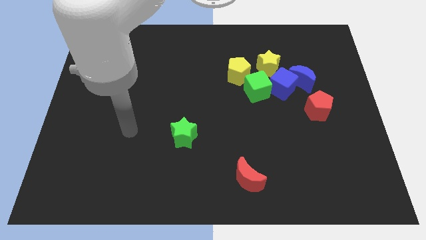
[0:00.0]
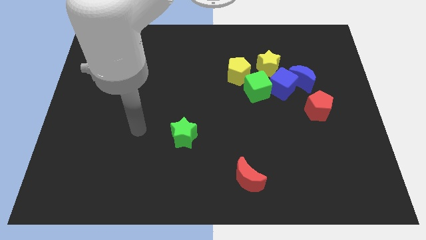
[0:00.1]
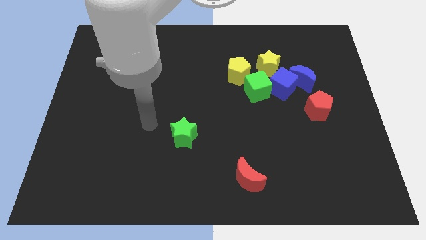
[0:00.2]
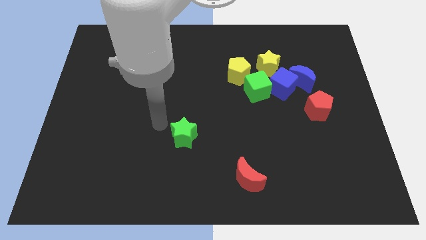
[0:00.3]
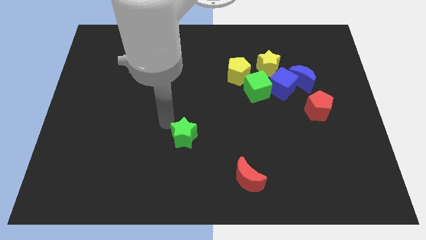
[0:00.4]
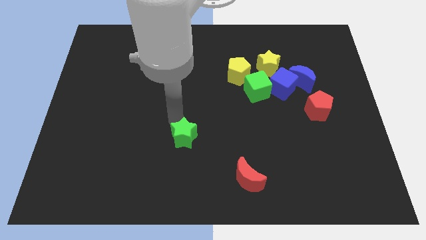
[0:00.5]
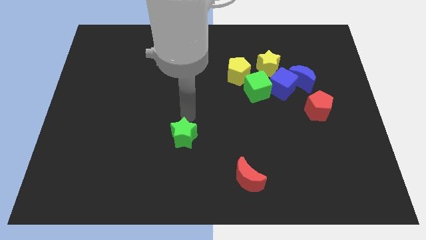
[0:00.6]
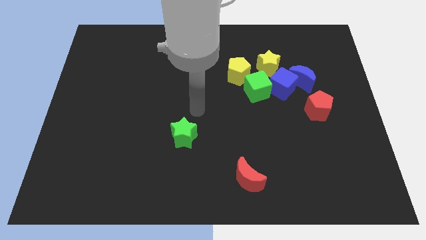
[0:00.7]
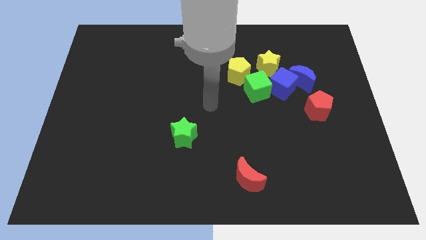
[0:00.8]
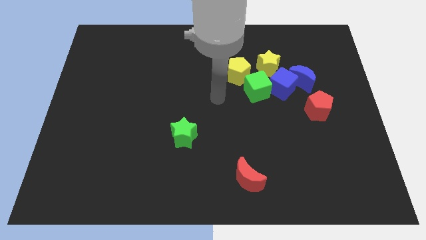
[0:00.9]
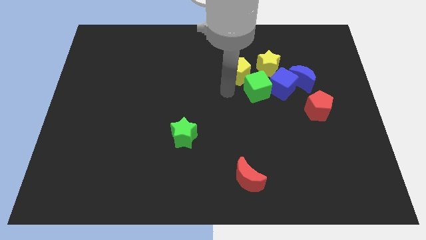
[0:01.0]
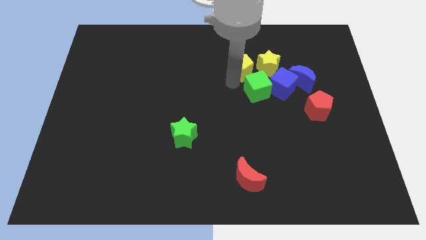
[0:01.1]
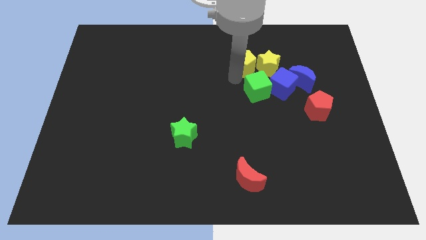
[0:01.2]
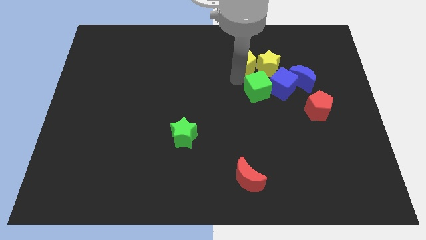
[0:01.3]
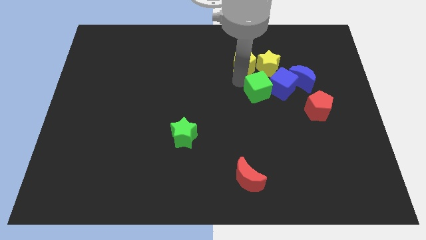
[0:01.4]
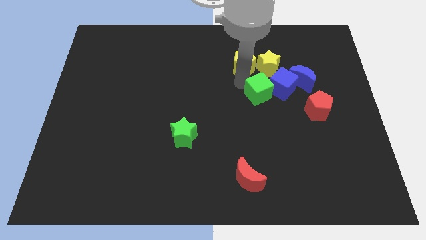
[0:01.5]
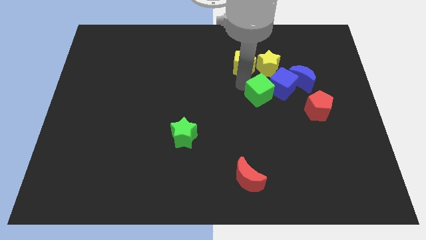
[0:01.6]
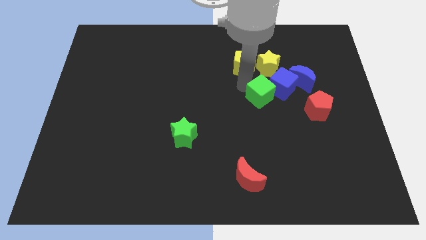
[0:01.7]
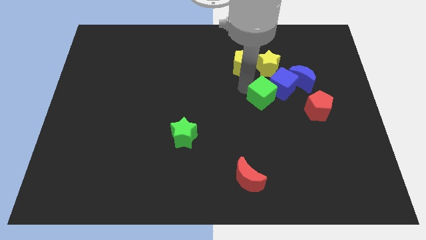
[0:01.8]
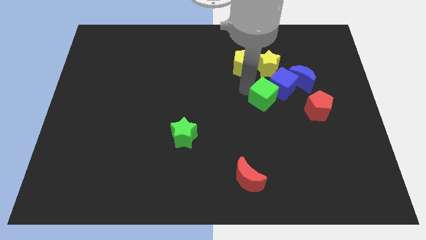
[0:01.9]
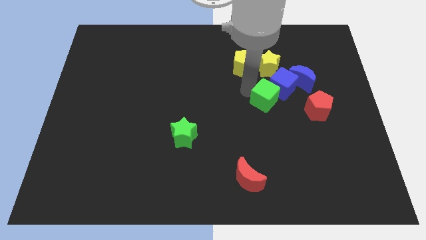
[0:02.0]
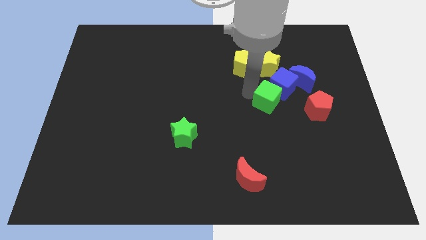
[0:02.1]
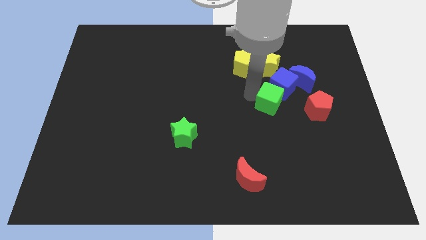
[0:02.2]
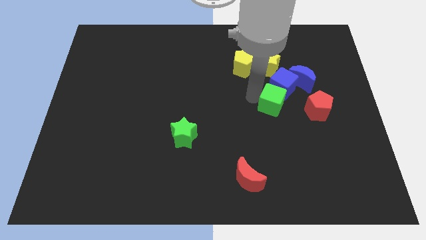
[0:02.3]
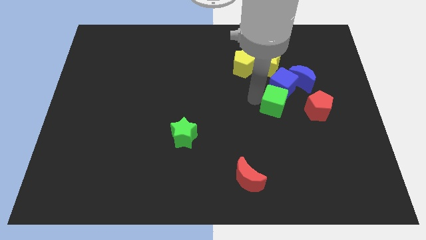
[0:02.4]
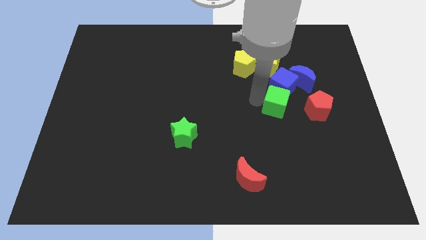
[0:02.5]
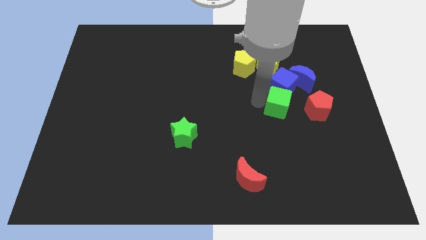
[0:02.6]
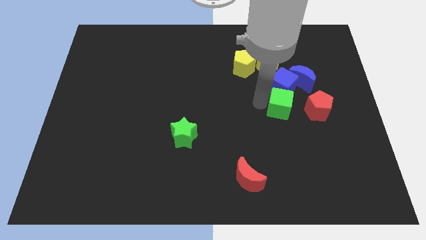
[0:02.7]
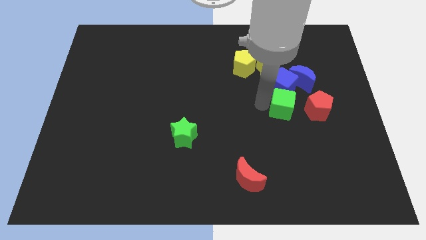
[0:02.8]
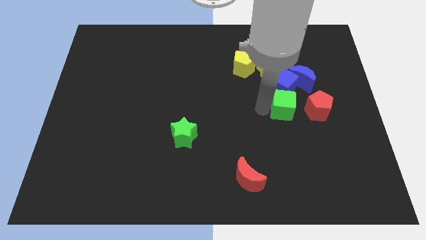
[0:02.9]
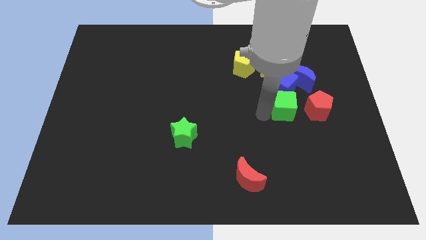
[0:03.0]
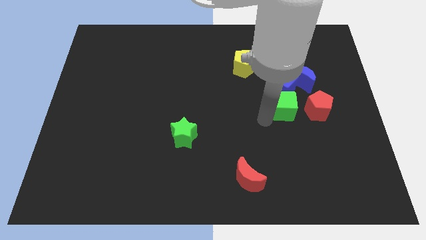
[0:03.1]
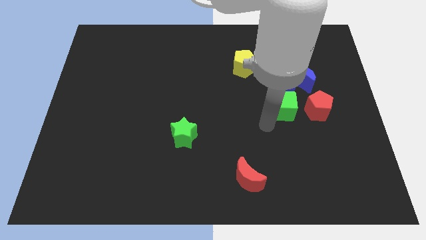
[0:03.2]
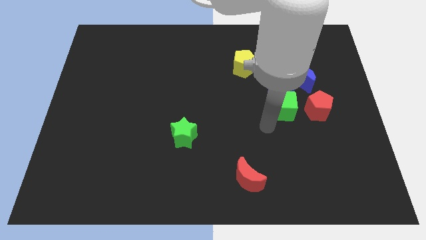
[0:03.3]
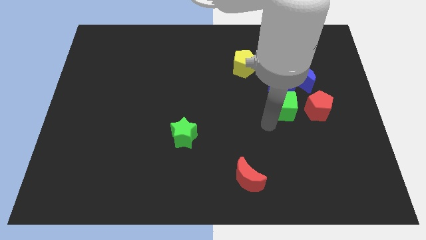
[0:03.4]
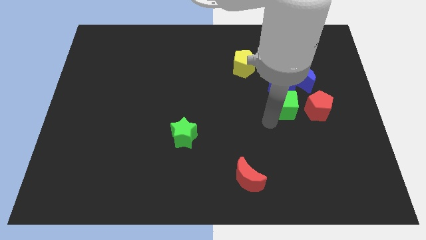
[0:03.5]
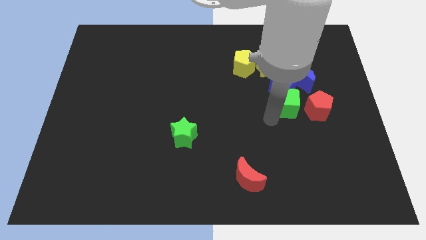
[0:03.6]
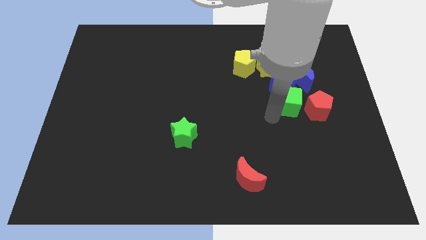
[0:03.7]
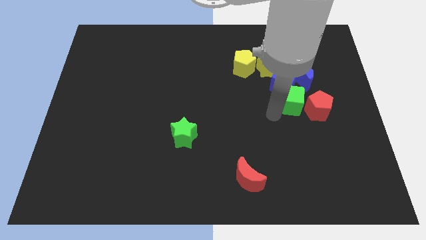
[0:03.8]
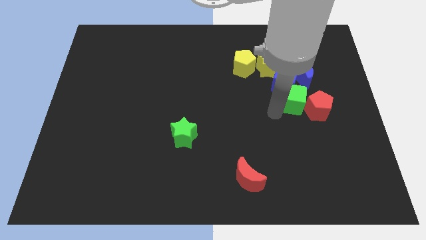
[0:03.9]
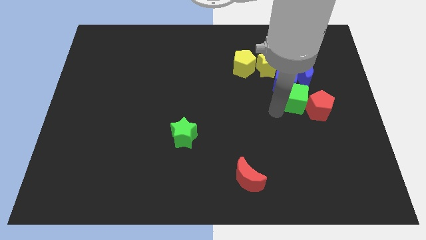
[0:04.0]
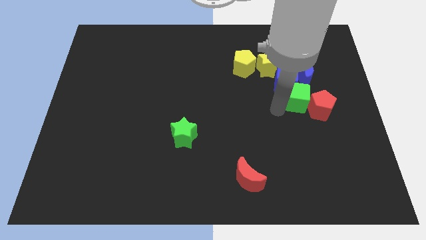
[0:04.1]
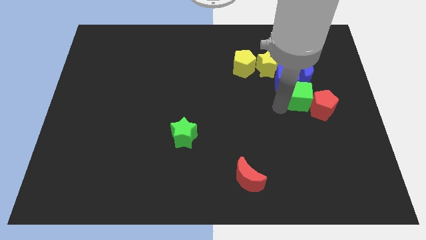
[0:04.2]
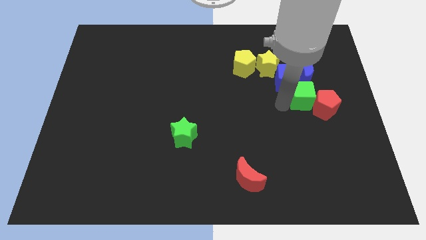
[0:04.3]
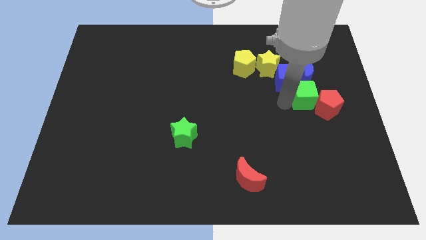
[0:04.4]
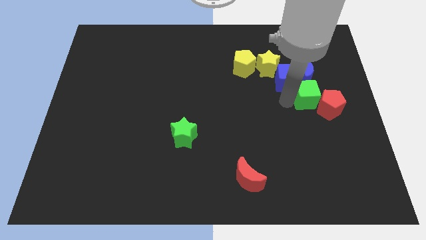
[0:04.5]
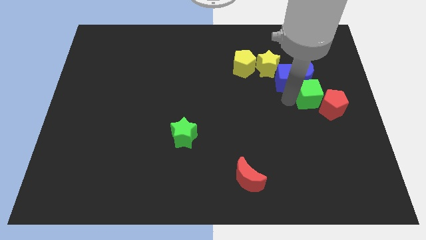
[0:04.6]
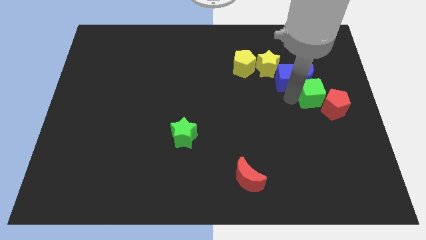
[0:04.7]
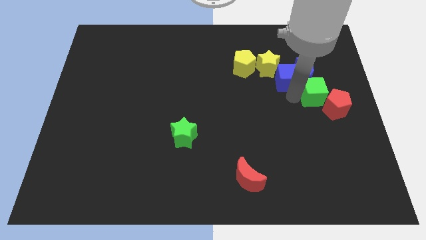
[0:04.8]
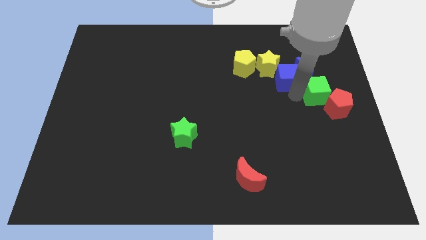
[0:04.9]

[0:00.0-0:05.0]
move the green cube to the blue moon

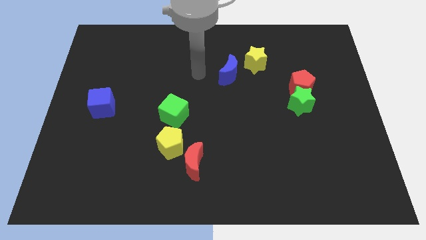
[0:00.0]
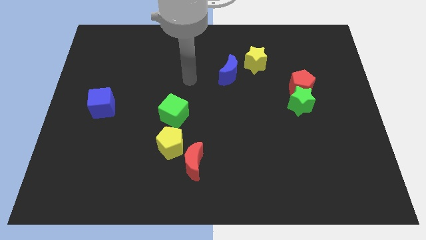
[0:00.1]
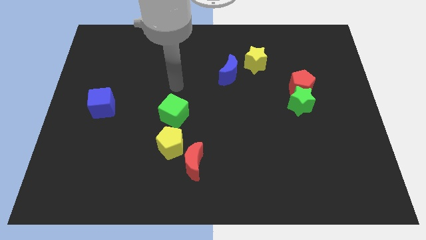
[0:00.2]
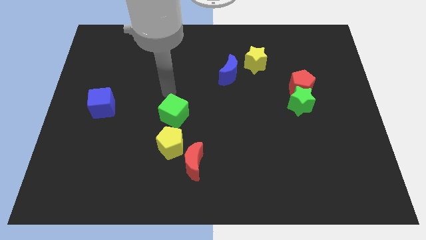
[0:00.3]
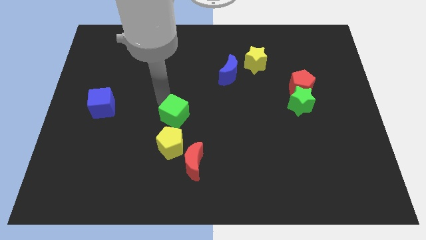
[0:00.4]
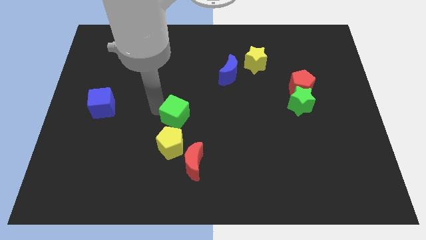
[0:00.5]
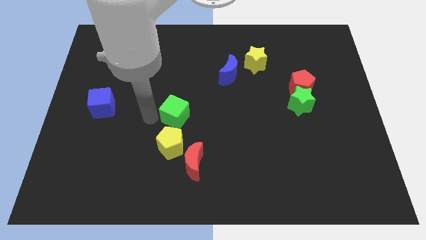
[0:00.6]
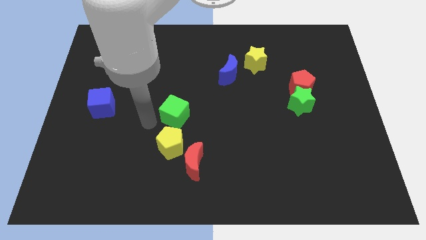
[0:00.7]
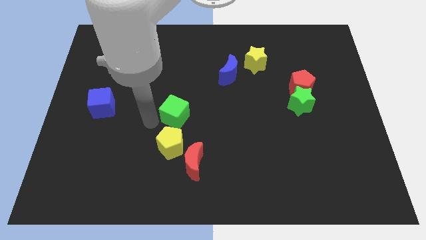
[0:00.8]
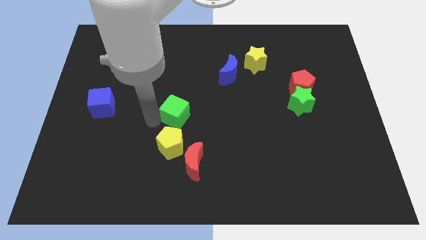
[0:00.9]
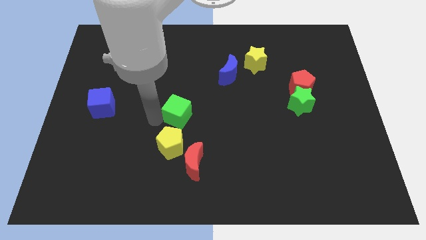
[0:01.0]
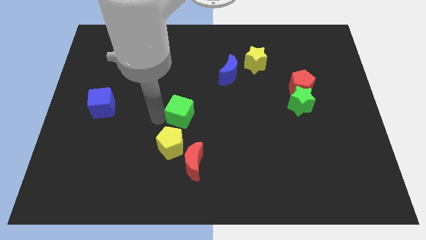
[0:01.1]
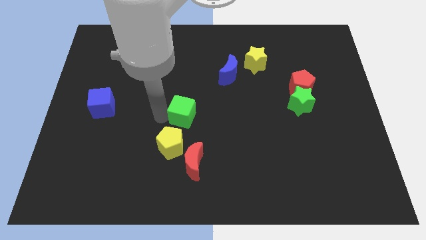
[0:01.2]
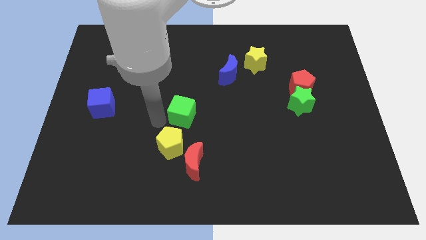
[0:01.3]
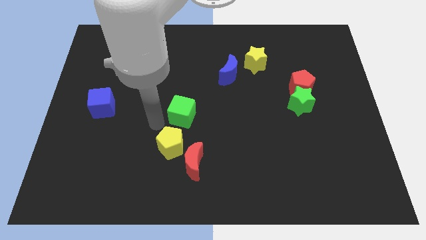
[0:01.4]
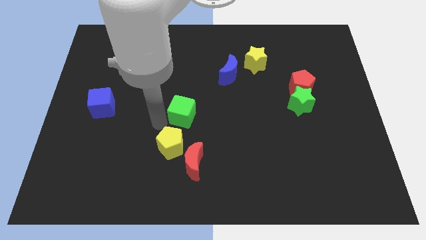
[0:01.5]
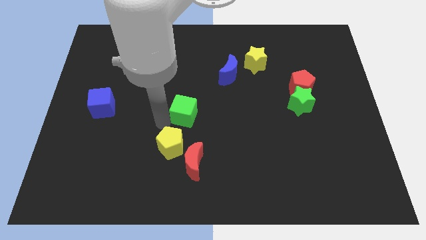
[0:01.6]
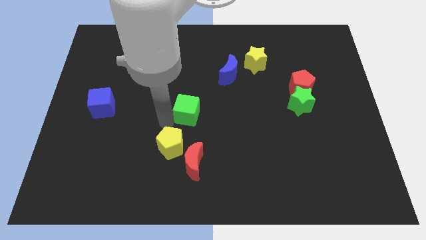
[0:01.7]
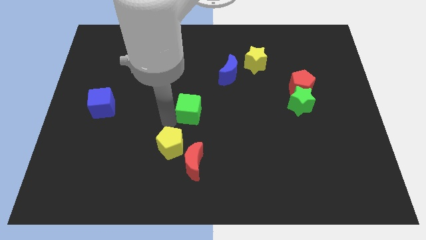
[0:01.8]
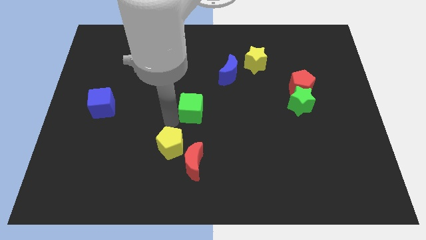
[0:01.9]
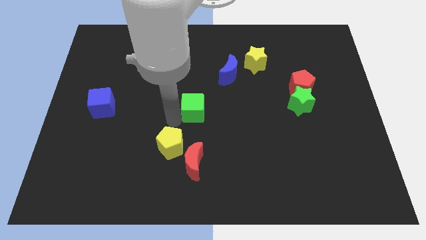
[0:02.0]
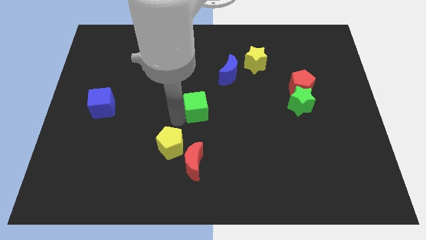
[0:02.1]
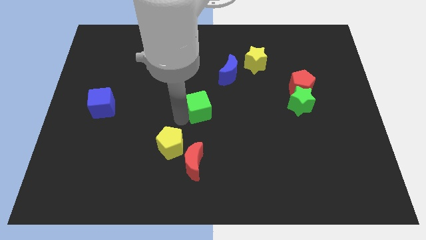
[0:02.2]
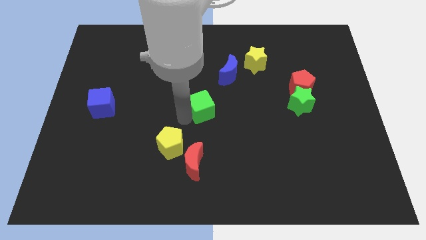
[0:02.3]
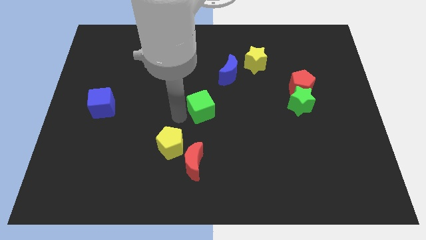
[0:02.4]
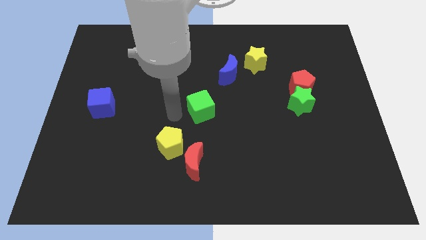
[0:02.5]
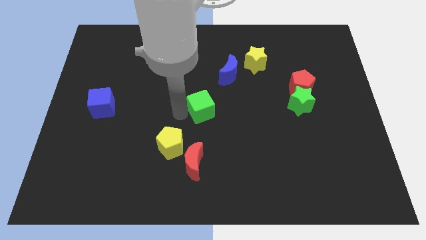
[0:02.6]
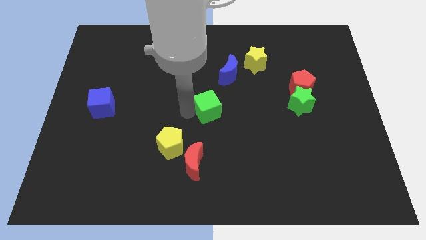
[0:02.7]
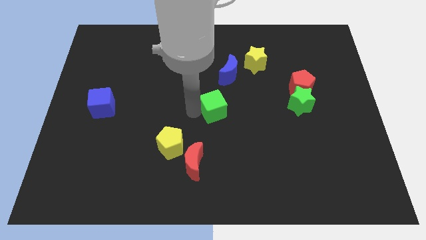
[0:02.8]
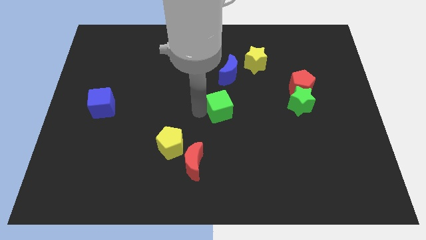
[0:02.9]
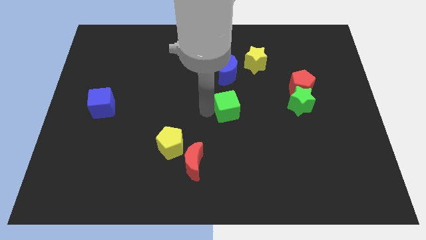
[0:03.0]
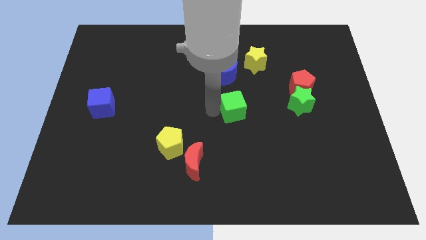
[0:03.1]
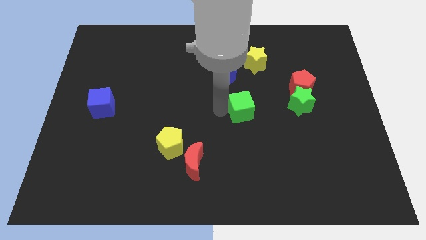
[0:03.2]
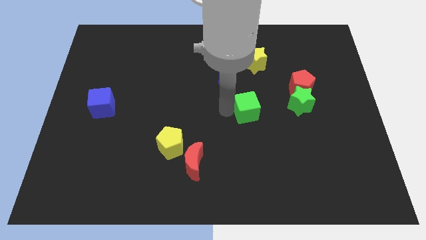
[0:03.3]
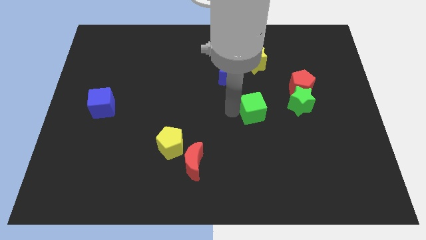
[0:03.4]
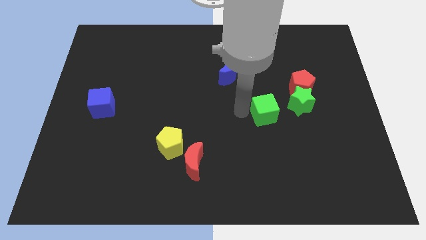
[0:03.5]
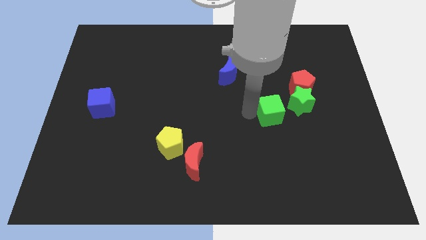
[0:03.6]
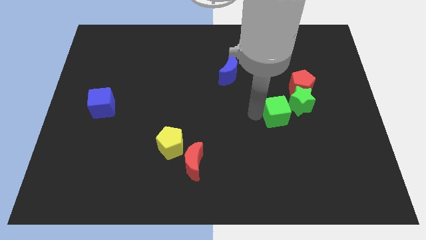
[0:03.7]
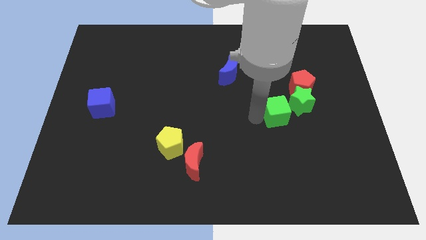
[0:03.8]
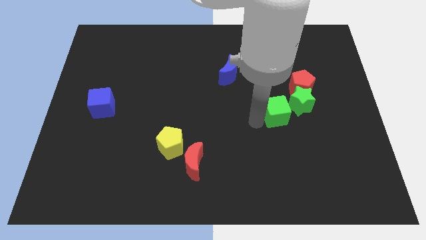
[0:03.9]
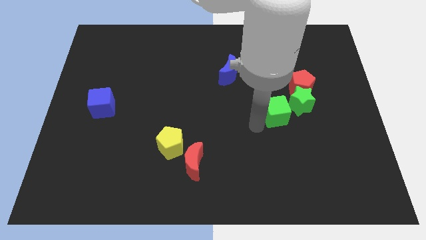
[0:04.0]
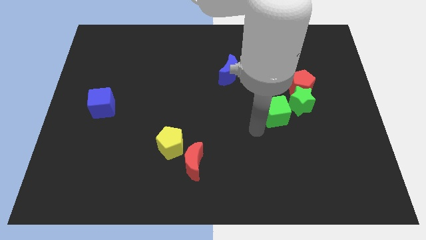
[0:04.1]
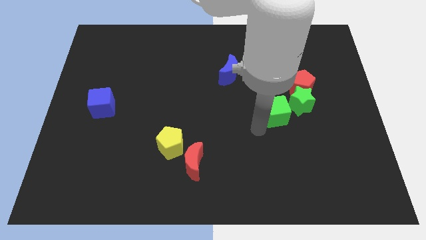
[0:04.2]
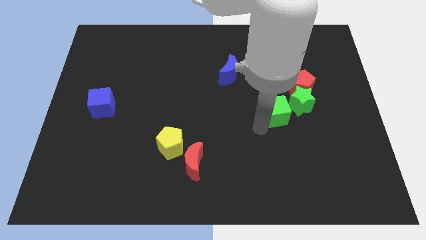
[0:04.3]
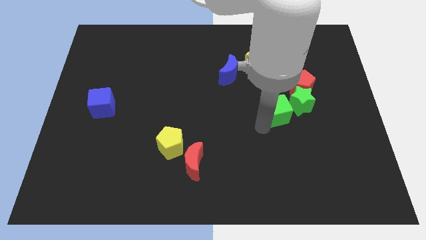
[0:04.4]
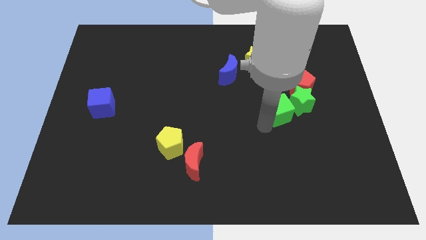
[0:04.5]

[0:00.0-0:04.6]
slide the green cube towards the green star
